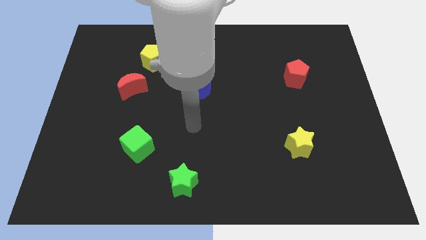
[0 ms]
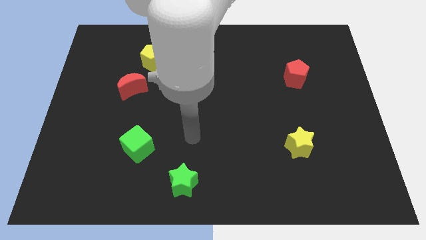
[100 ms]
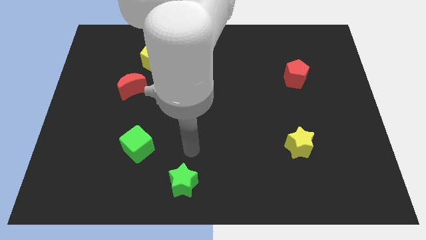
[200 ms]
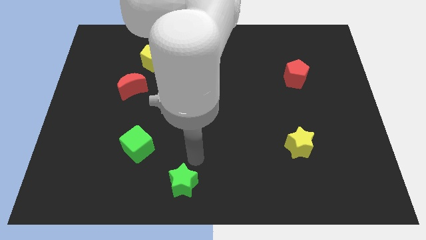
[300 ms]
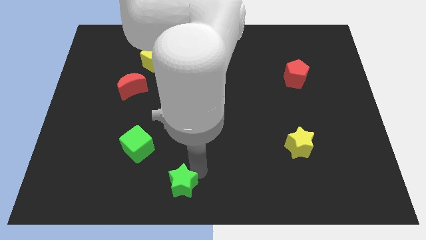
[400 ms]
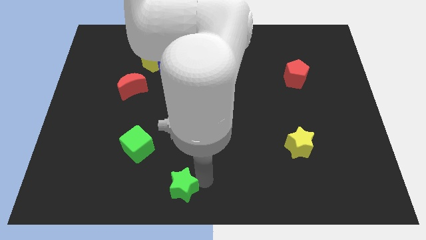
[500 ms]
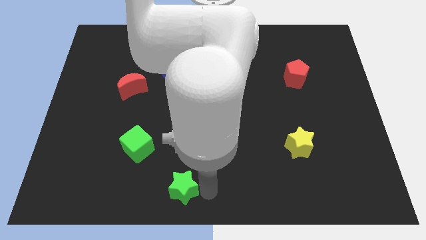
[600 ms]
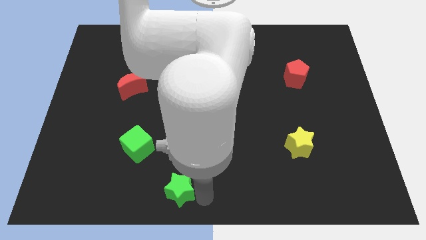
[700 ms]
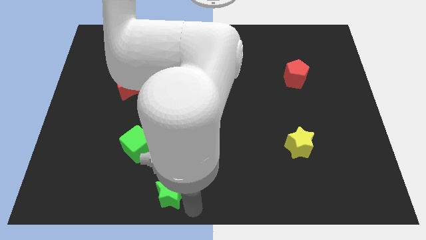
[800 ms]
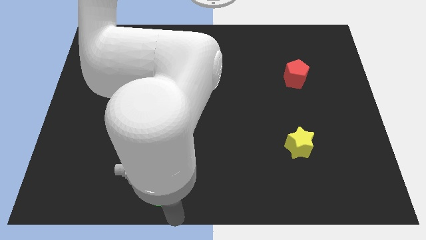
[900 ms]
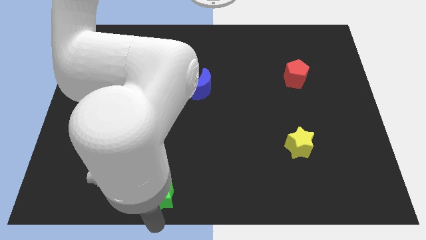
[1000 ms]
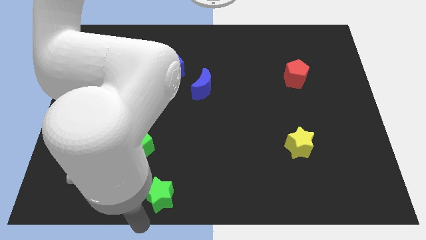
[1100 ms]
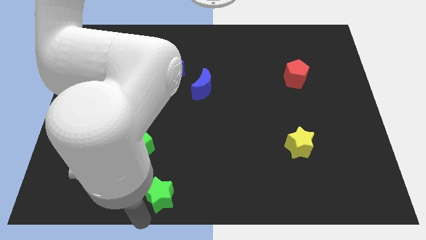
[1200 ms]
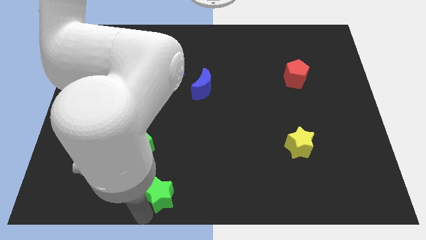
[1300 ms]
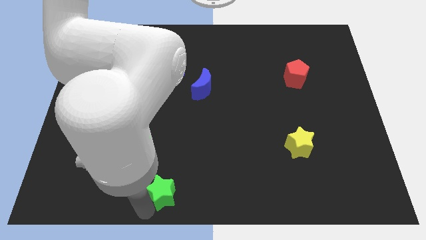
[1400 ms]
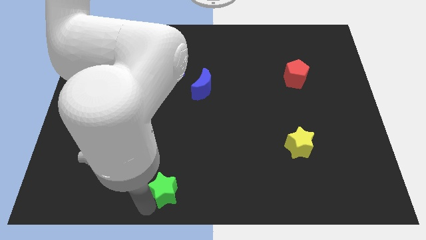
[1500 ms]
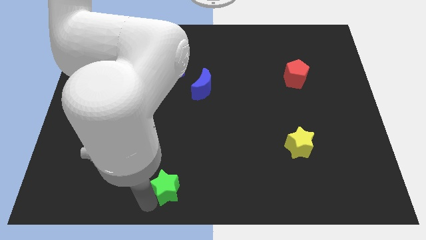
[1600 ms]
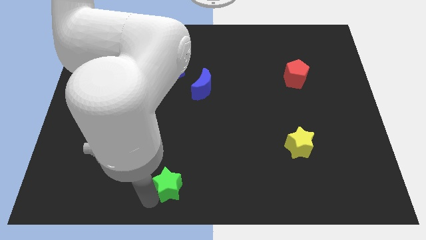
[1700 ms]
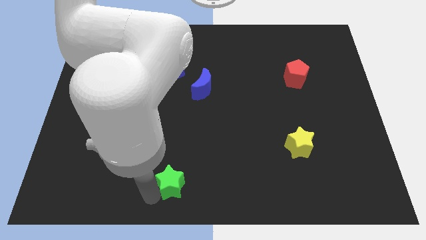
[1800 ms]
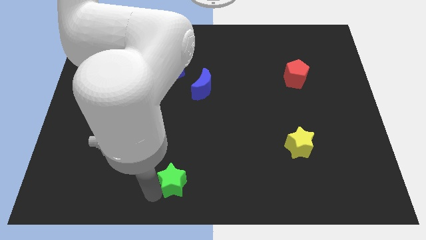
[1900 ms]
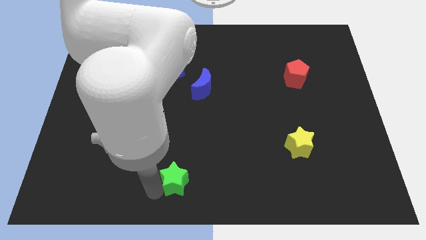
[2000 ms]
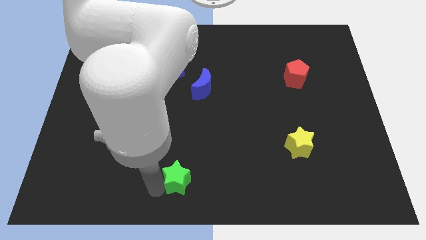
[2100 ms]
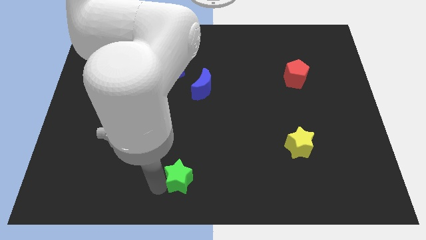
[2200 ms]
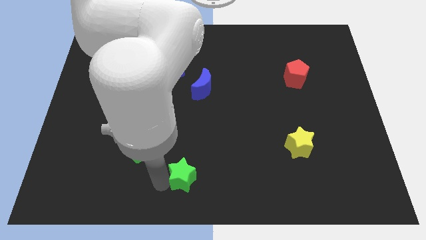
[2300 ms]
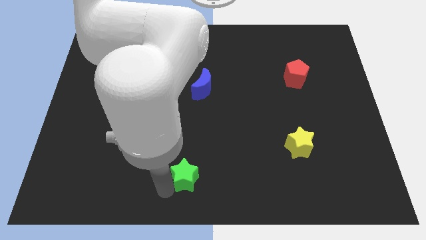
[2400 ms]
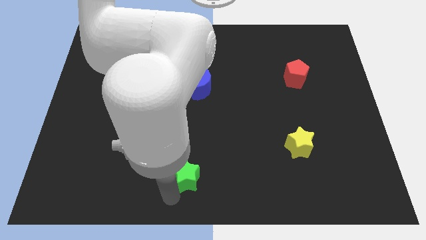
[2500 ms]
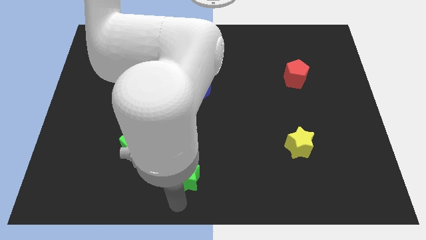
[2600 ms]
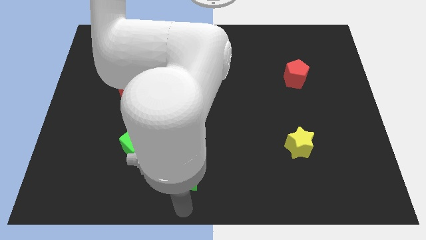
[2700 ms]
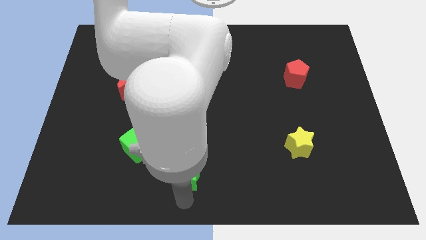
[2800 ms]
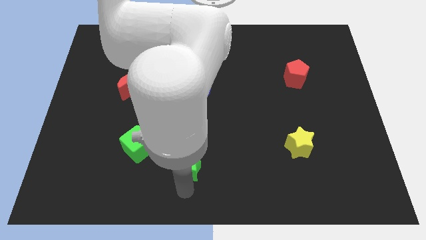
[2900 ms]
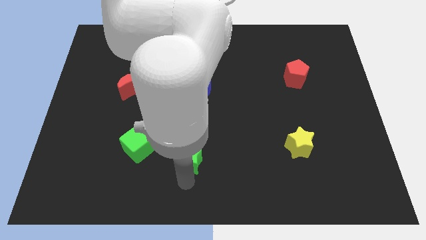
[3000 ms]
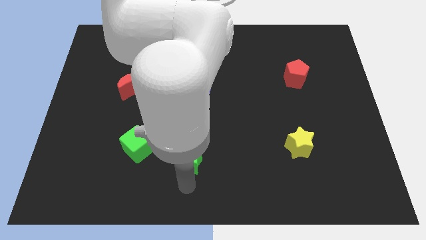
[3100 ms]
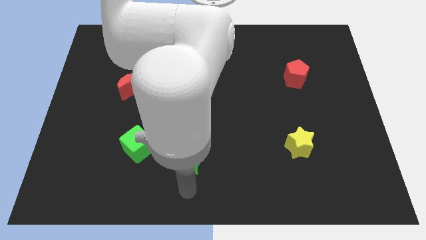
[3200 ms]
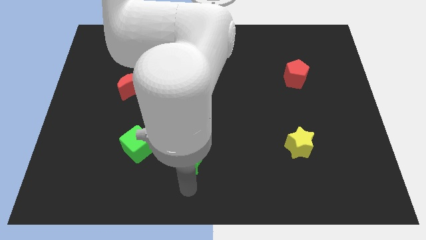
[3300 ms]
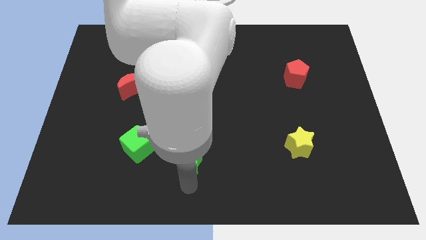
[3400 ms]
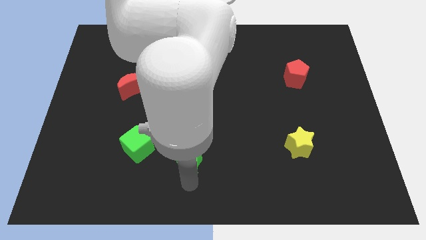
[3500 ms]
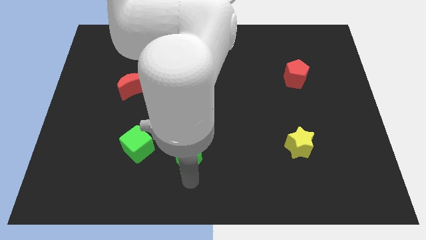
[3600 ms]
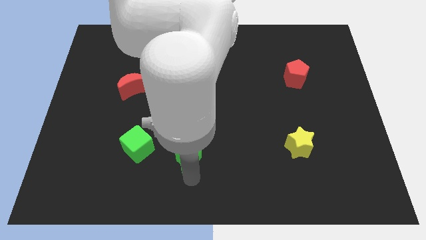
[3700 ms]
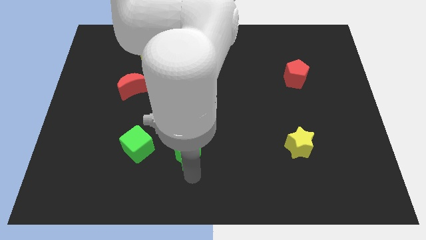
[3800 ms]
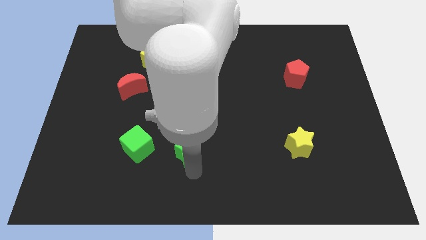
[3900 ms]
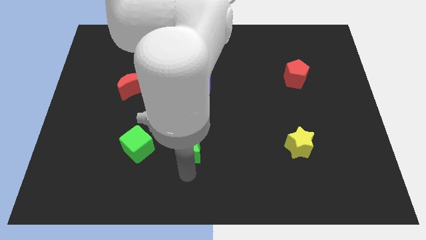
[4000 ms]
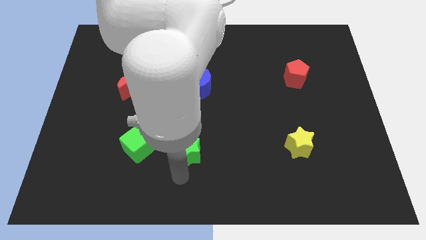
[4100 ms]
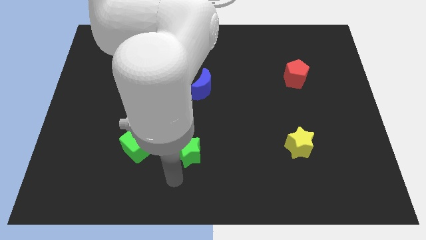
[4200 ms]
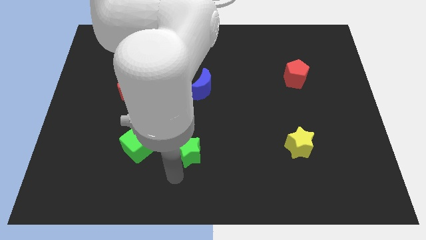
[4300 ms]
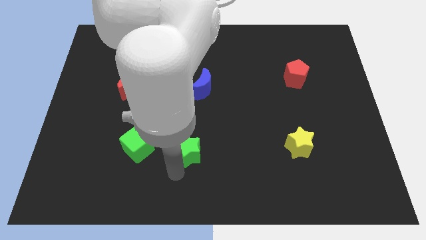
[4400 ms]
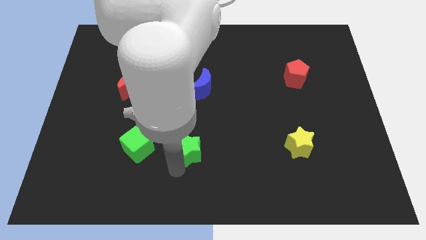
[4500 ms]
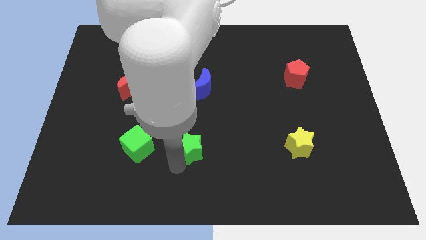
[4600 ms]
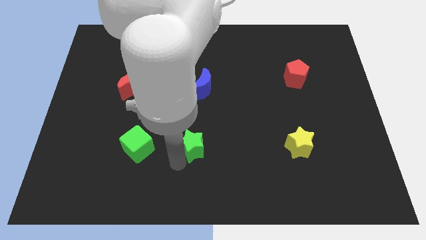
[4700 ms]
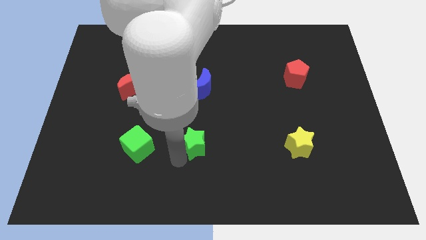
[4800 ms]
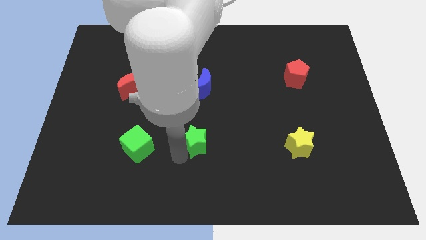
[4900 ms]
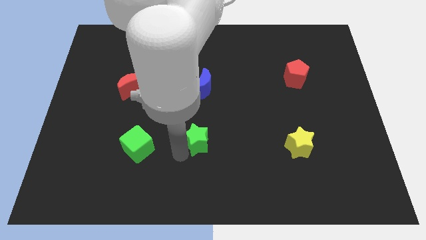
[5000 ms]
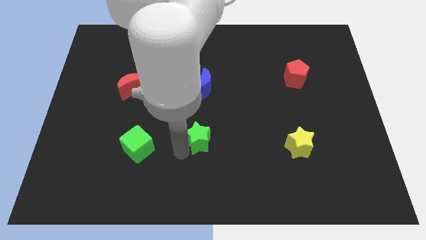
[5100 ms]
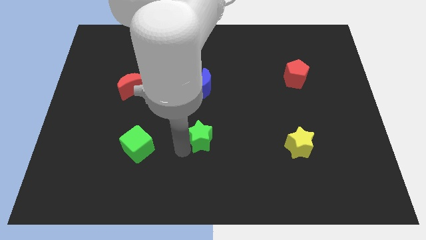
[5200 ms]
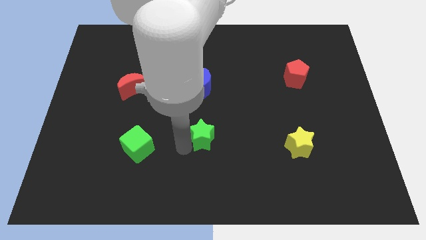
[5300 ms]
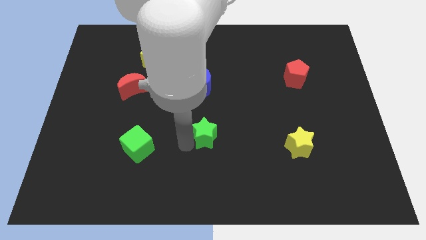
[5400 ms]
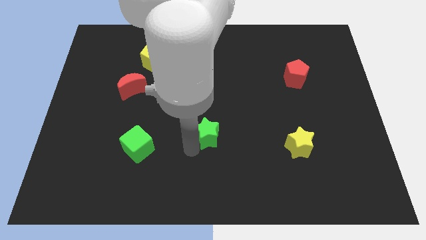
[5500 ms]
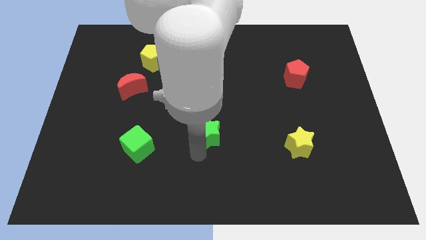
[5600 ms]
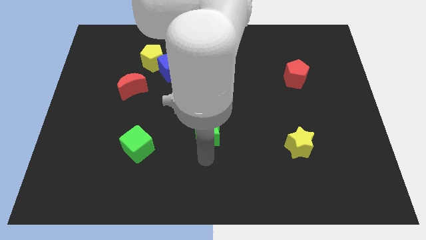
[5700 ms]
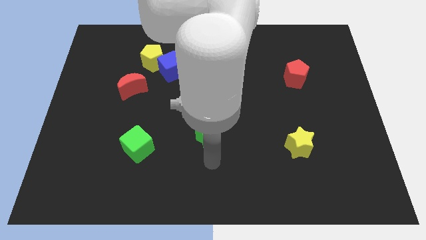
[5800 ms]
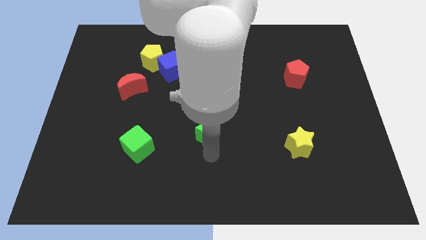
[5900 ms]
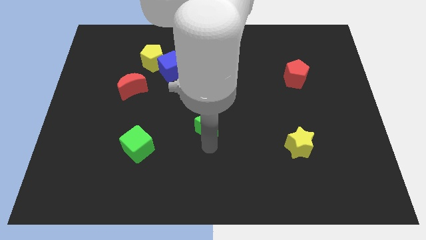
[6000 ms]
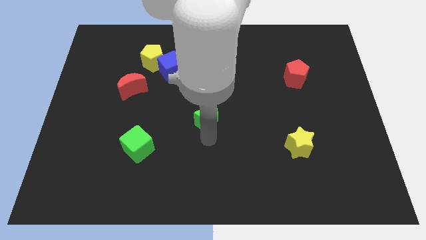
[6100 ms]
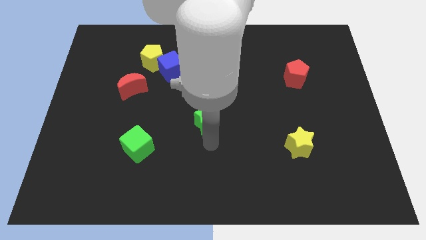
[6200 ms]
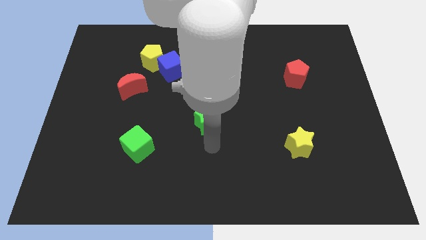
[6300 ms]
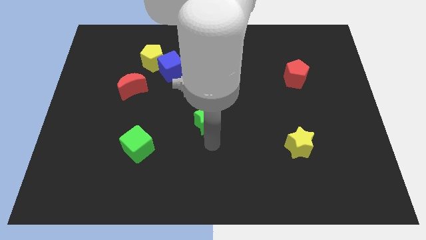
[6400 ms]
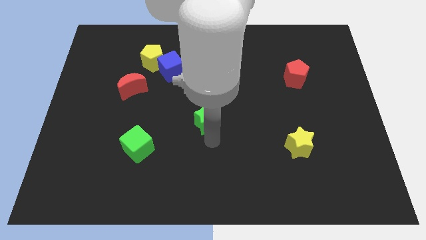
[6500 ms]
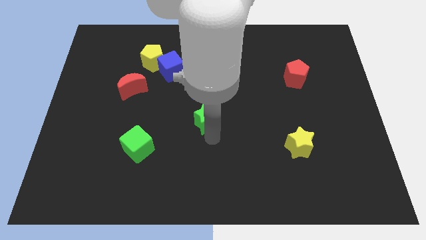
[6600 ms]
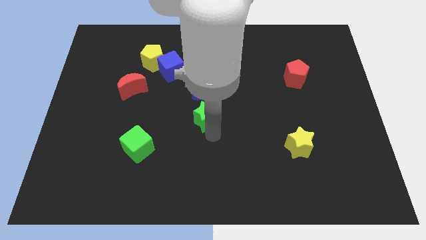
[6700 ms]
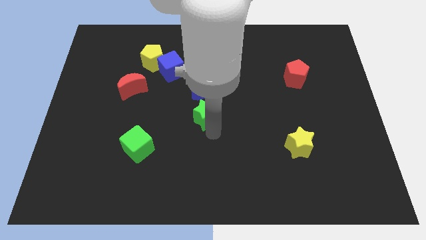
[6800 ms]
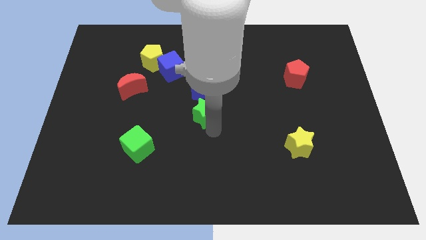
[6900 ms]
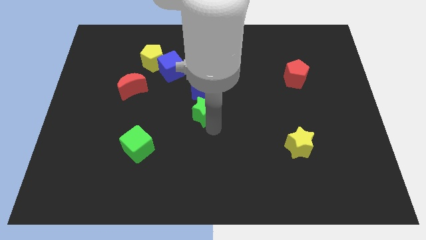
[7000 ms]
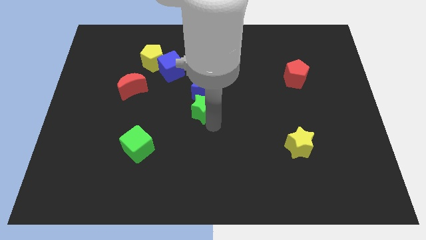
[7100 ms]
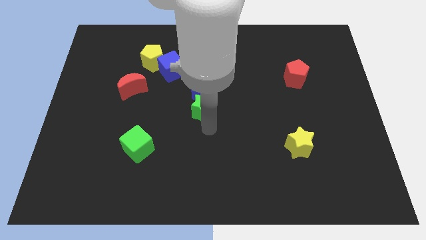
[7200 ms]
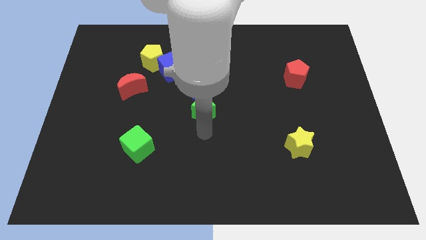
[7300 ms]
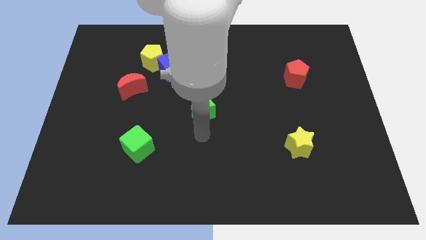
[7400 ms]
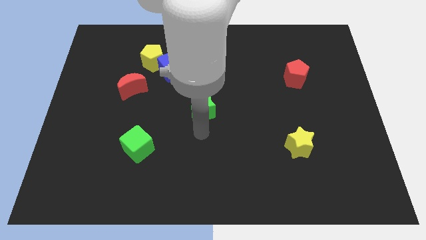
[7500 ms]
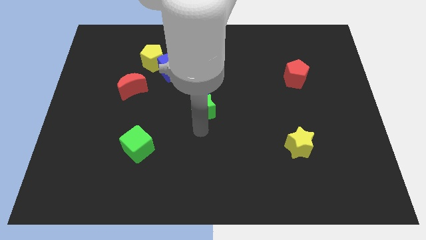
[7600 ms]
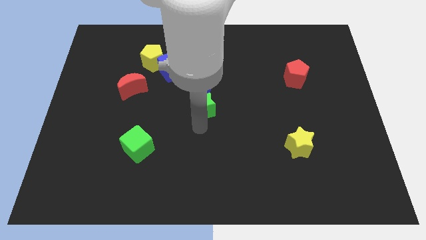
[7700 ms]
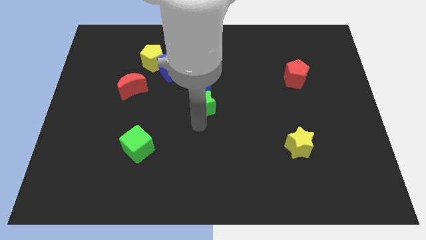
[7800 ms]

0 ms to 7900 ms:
slide the green star to the blue moon
